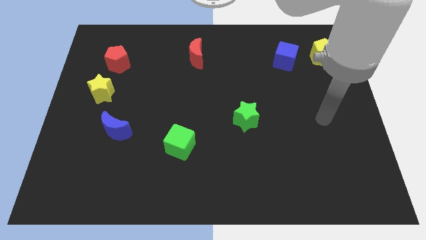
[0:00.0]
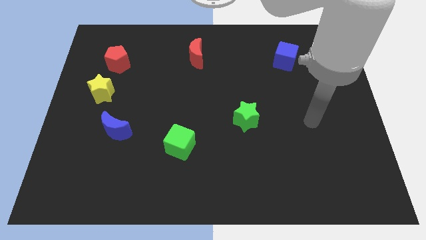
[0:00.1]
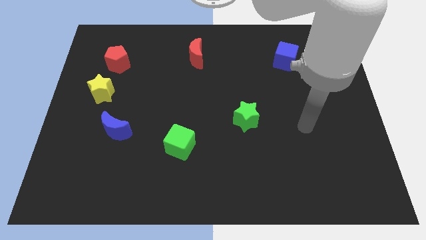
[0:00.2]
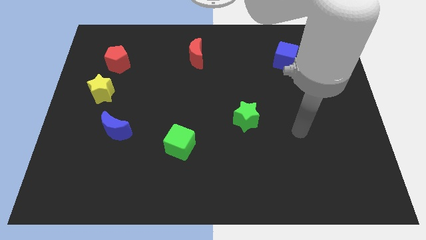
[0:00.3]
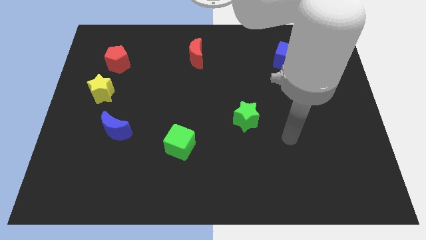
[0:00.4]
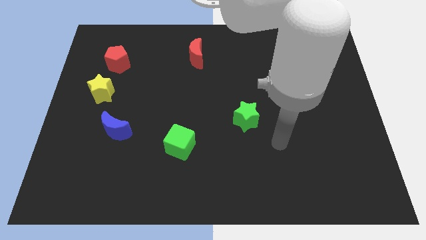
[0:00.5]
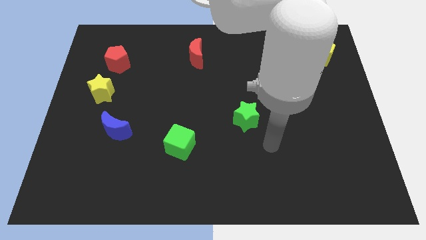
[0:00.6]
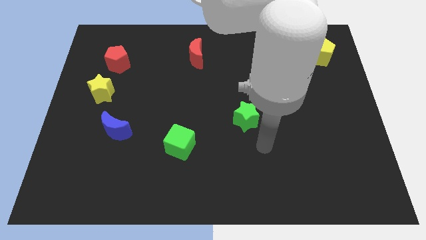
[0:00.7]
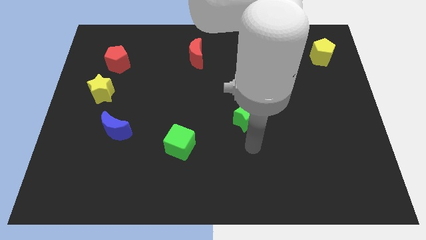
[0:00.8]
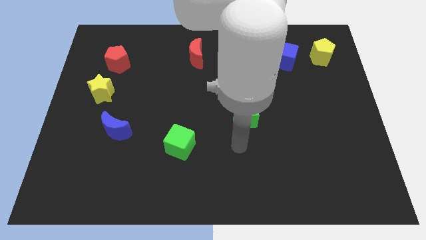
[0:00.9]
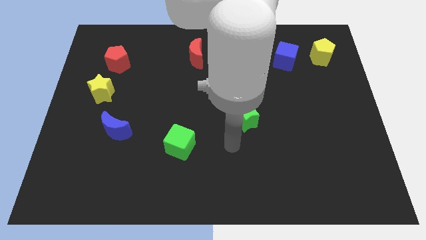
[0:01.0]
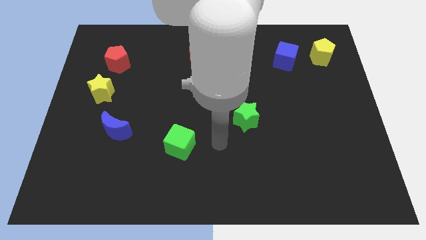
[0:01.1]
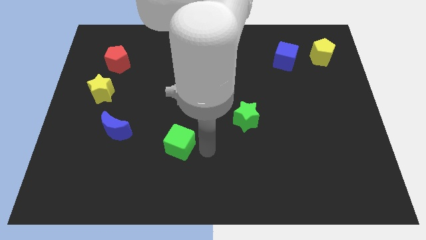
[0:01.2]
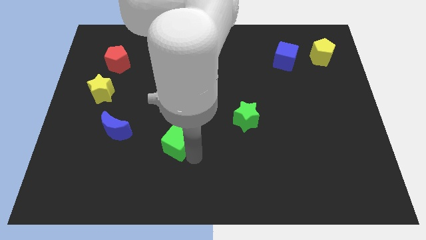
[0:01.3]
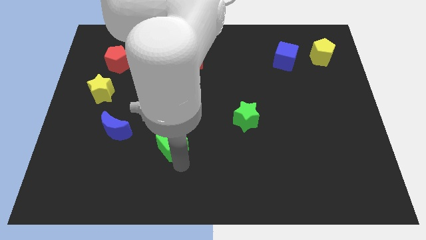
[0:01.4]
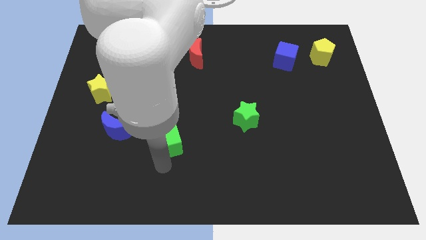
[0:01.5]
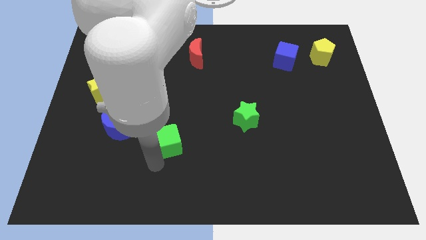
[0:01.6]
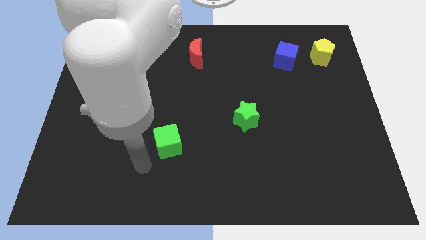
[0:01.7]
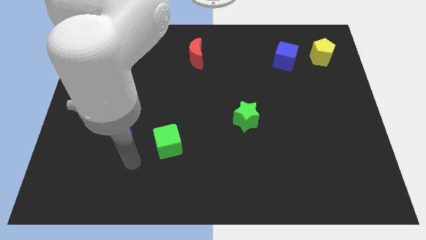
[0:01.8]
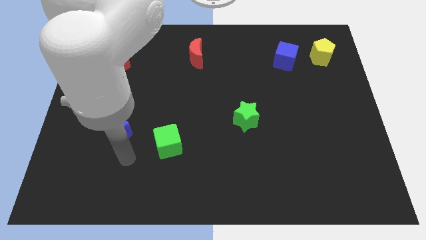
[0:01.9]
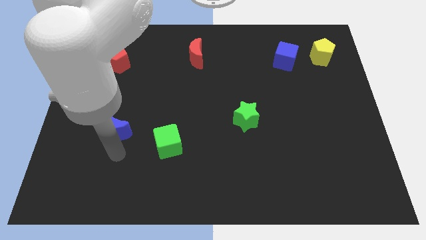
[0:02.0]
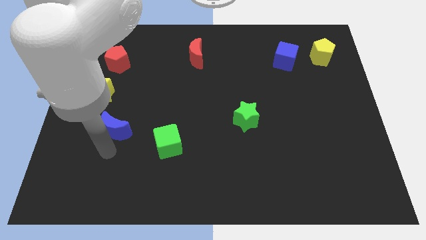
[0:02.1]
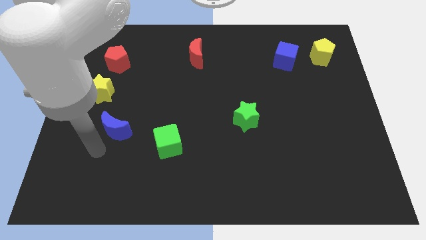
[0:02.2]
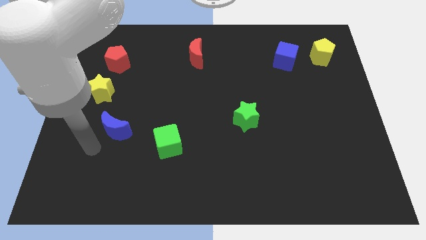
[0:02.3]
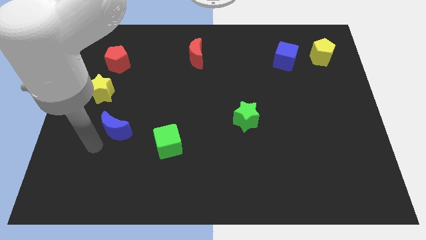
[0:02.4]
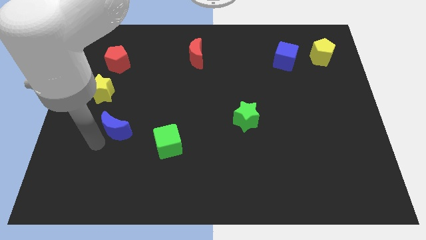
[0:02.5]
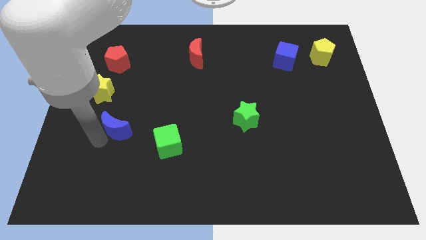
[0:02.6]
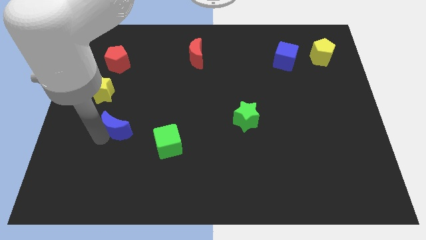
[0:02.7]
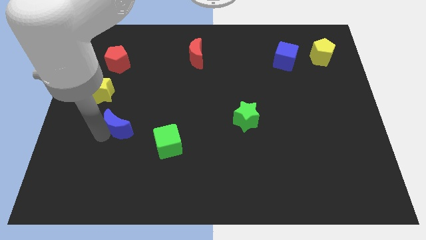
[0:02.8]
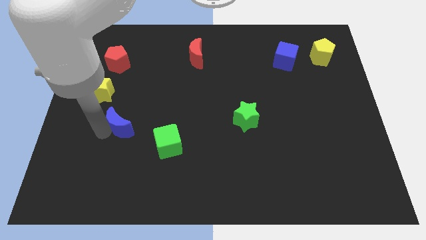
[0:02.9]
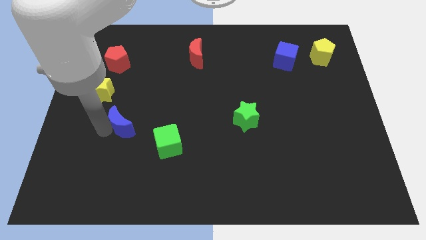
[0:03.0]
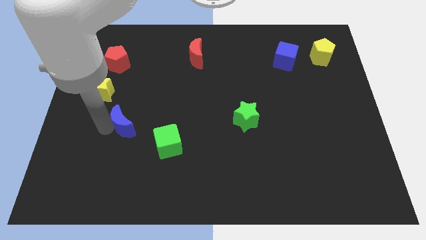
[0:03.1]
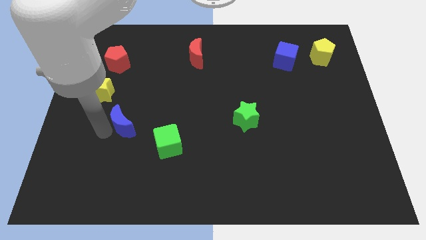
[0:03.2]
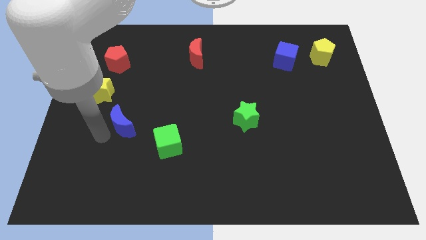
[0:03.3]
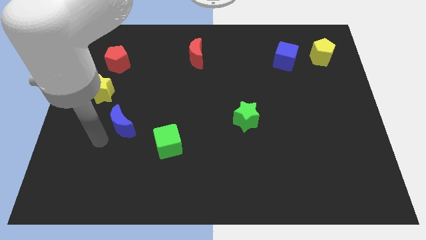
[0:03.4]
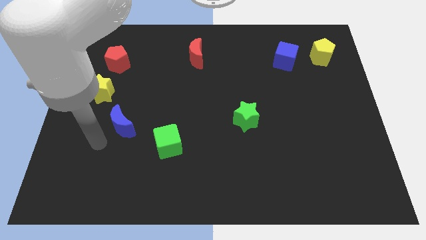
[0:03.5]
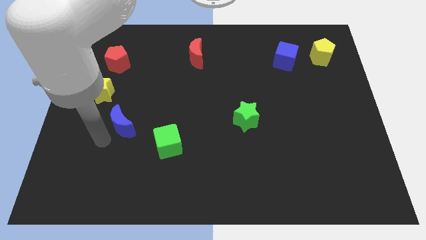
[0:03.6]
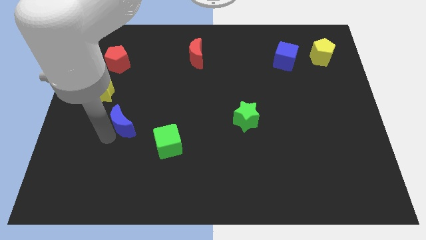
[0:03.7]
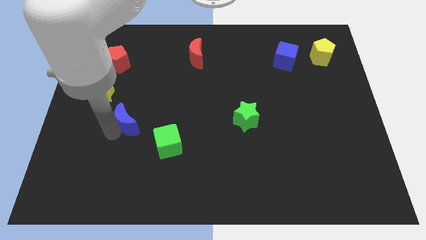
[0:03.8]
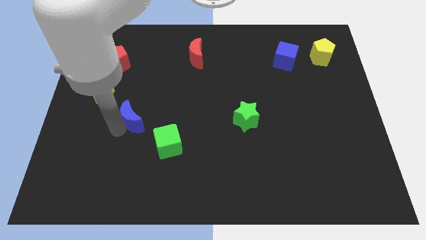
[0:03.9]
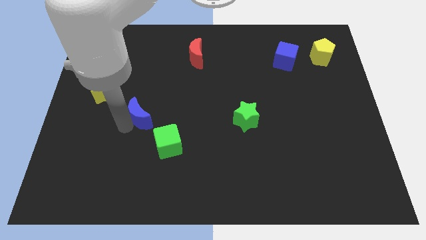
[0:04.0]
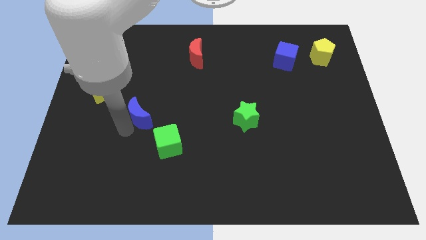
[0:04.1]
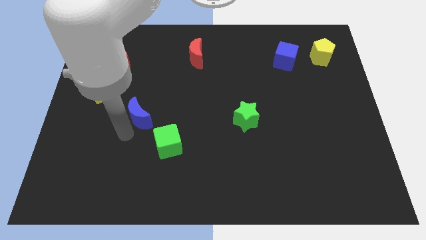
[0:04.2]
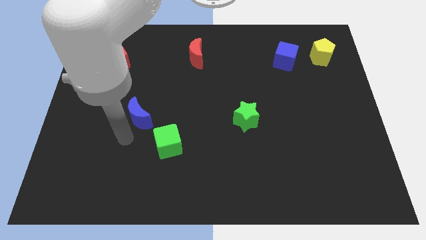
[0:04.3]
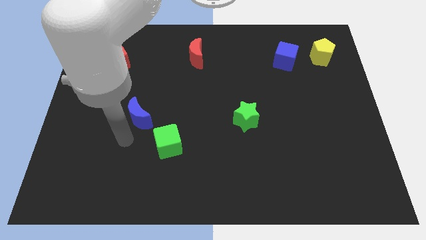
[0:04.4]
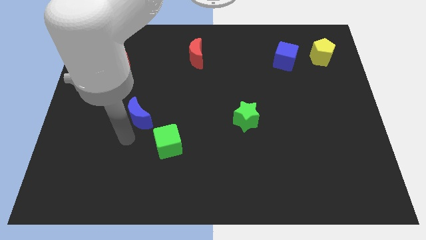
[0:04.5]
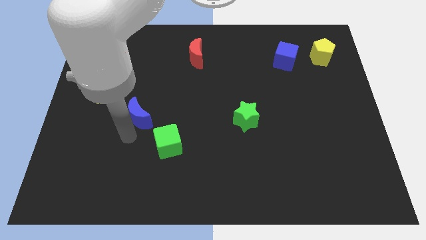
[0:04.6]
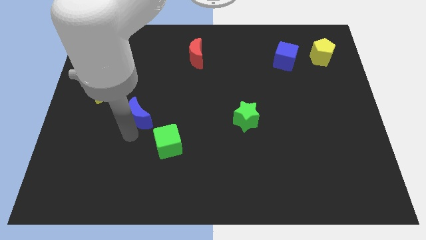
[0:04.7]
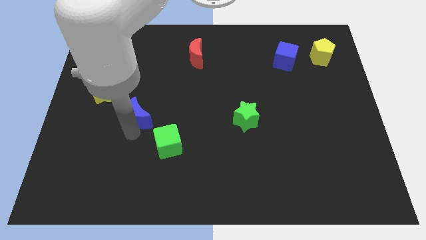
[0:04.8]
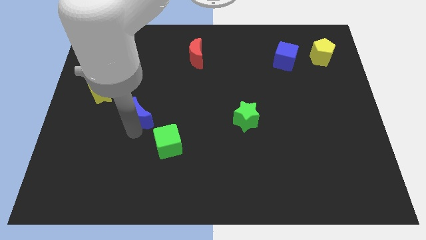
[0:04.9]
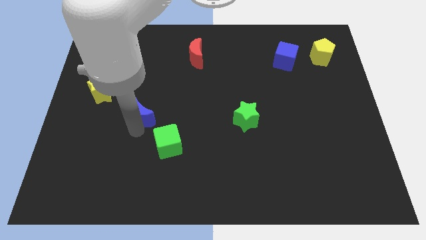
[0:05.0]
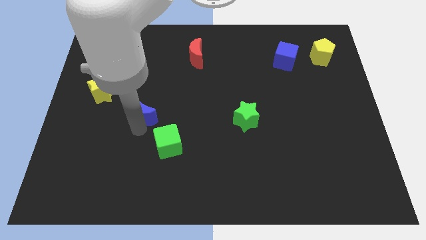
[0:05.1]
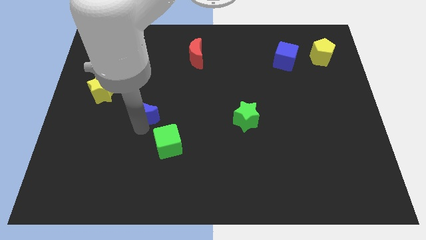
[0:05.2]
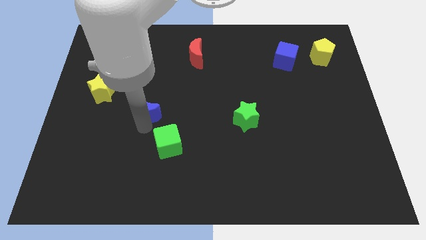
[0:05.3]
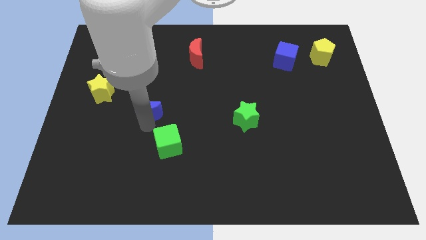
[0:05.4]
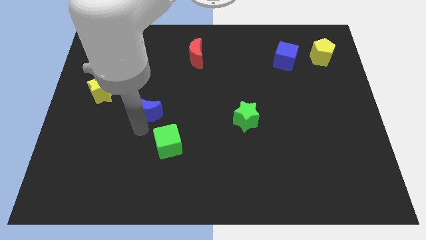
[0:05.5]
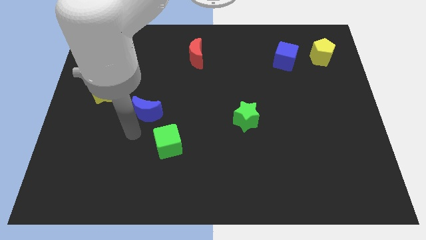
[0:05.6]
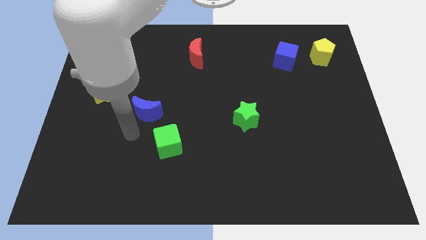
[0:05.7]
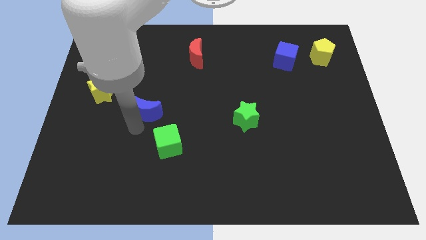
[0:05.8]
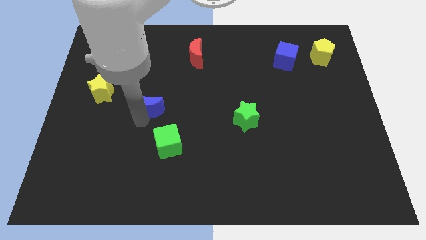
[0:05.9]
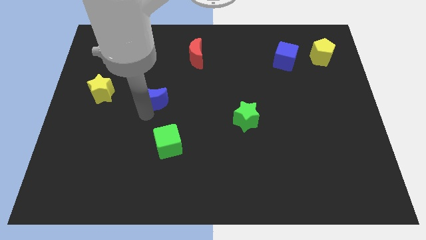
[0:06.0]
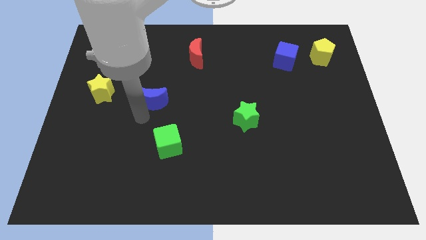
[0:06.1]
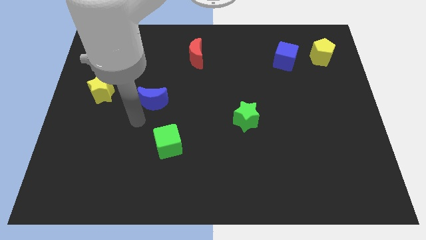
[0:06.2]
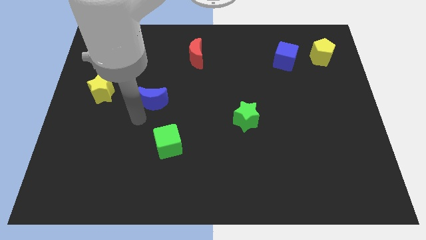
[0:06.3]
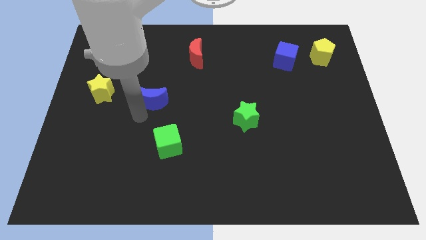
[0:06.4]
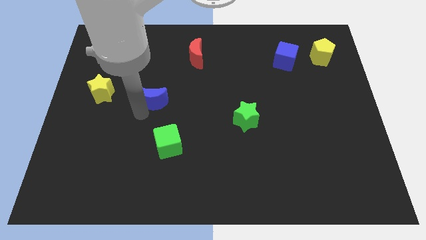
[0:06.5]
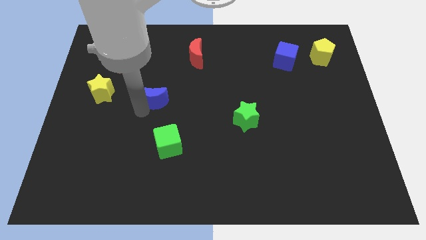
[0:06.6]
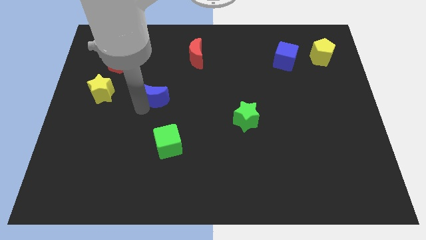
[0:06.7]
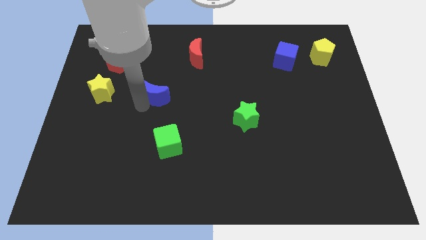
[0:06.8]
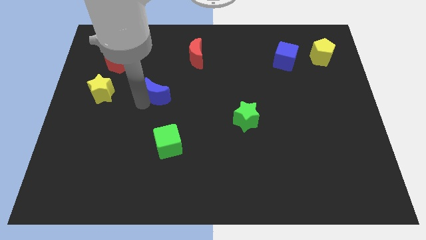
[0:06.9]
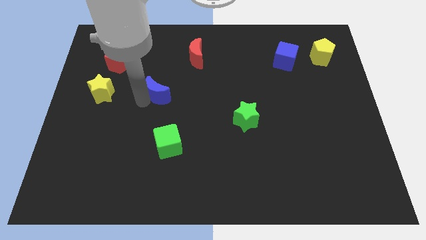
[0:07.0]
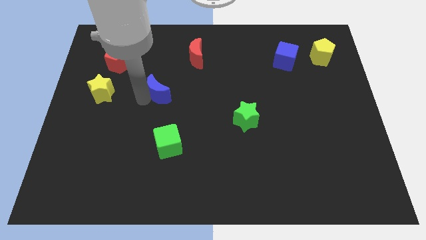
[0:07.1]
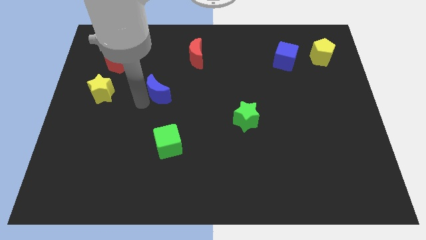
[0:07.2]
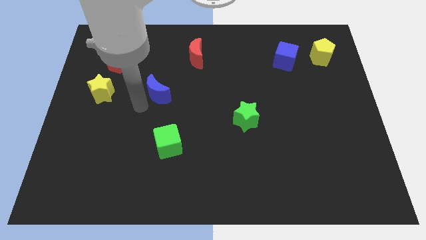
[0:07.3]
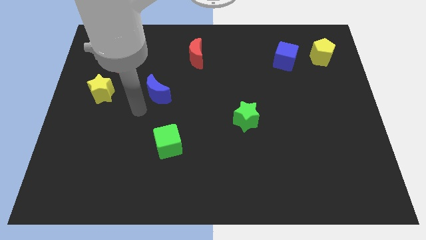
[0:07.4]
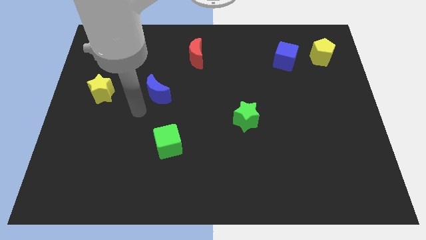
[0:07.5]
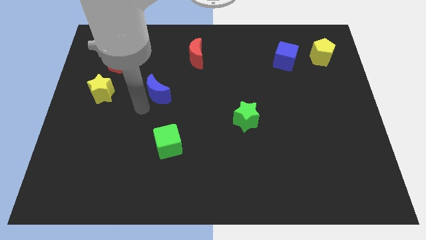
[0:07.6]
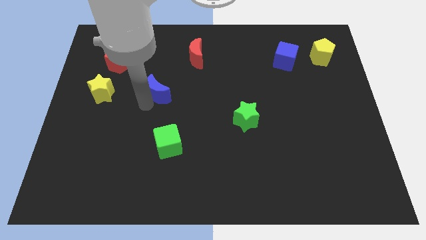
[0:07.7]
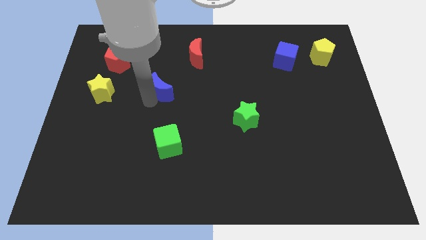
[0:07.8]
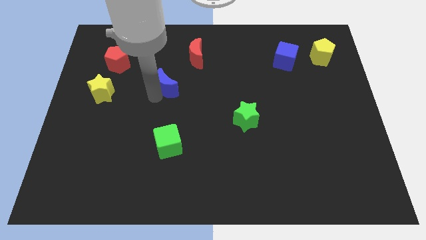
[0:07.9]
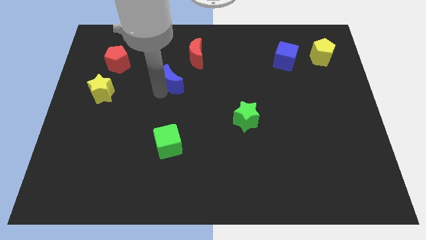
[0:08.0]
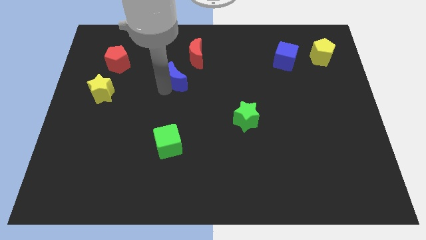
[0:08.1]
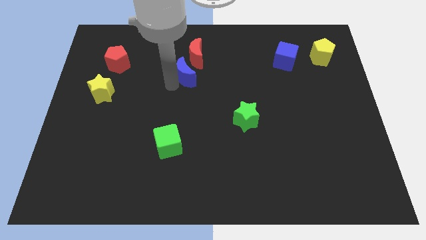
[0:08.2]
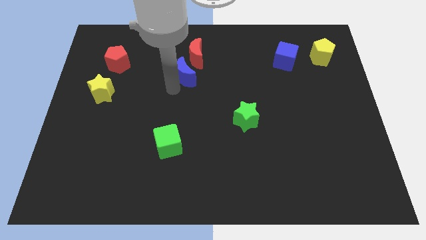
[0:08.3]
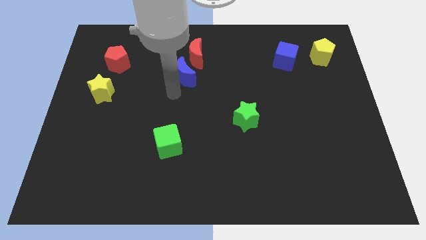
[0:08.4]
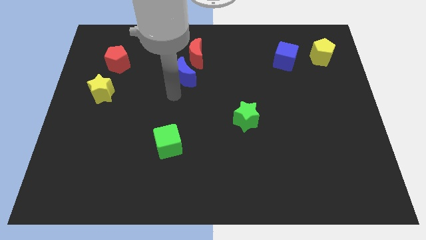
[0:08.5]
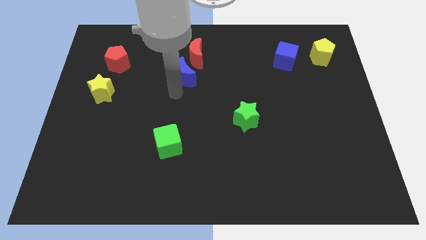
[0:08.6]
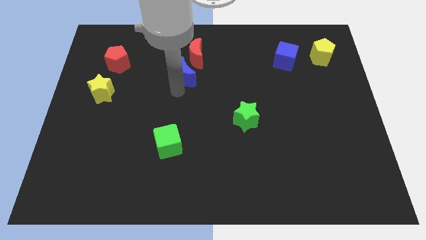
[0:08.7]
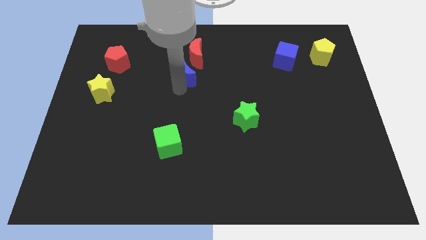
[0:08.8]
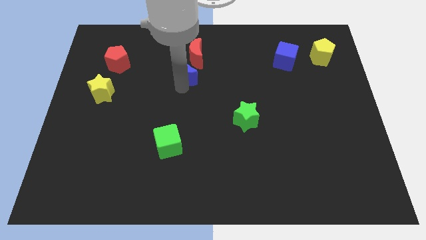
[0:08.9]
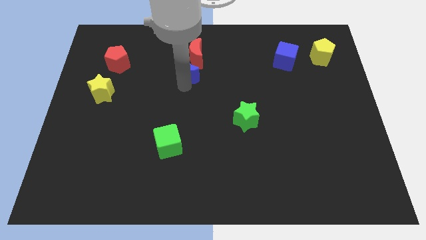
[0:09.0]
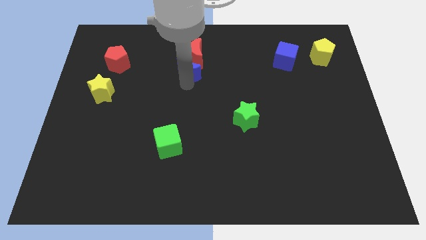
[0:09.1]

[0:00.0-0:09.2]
push the blue moon next to the red moon
